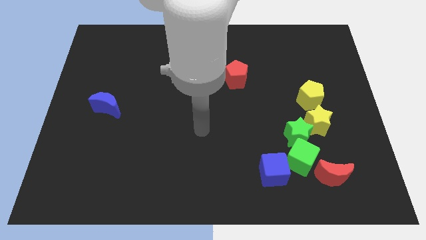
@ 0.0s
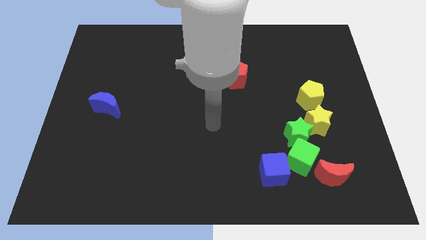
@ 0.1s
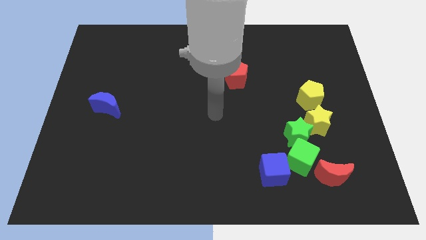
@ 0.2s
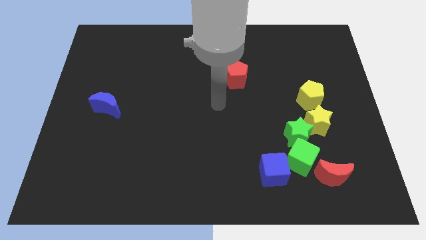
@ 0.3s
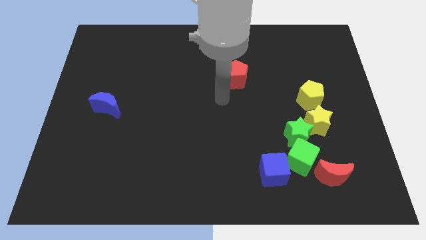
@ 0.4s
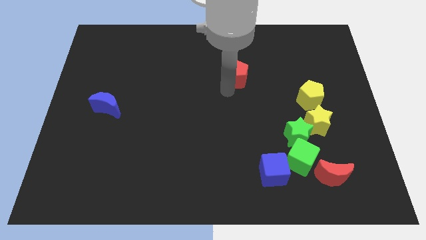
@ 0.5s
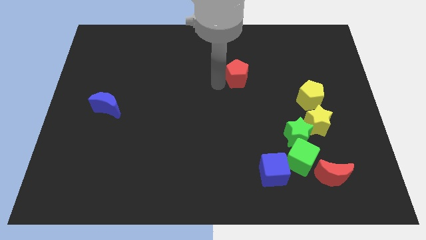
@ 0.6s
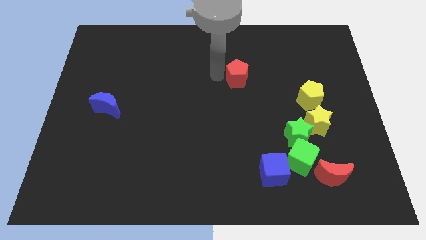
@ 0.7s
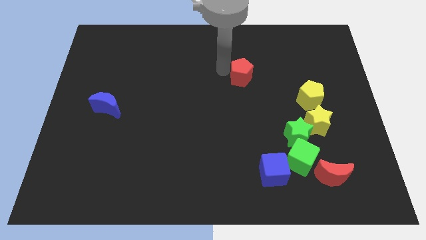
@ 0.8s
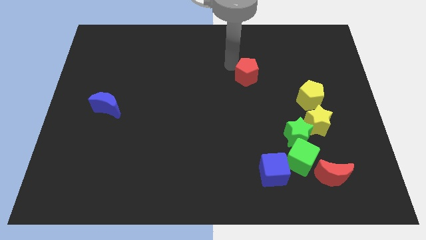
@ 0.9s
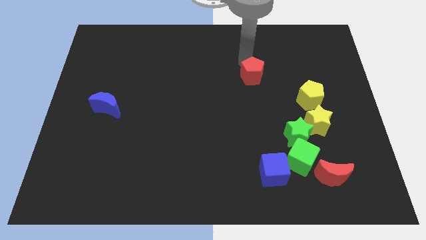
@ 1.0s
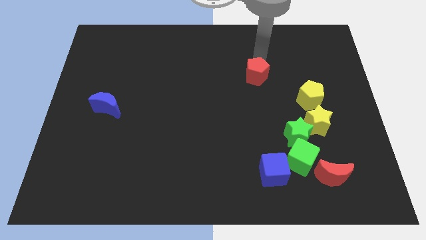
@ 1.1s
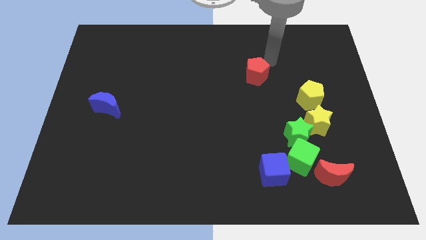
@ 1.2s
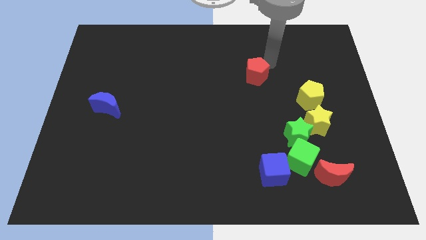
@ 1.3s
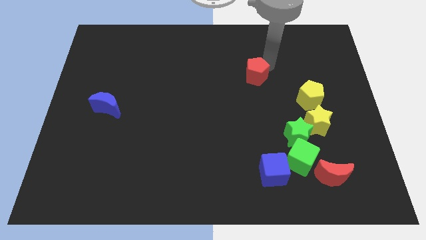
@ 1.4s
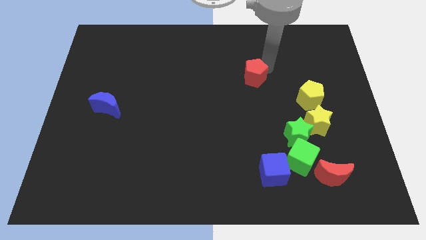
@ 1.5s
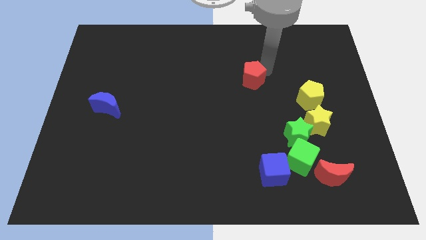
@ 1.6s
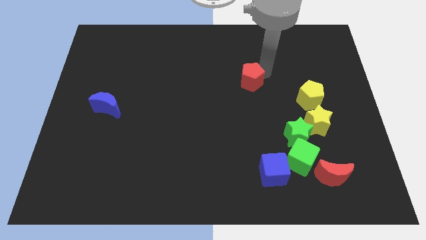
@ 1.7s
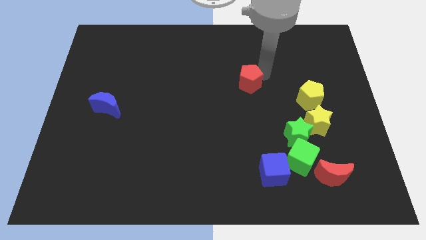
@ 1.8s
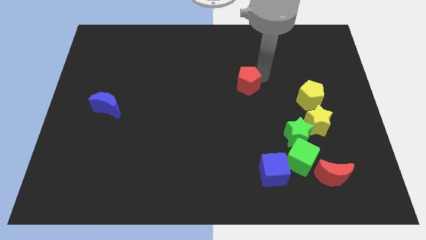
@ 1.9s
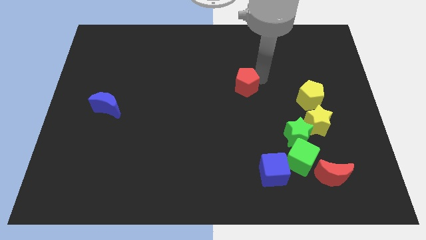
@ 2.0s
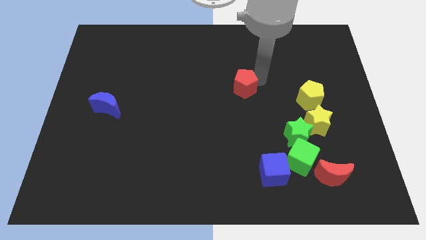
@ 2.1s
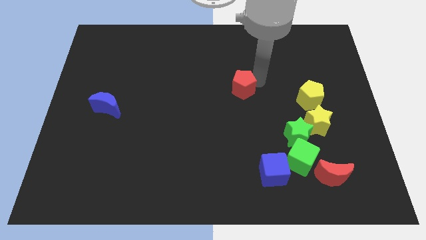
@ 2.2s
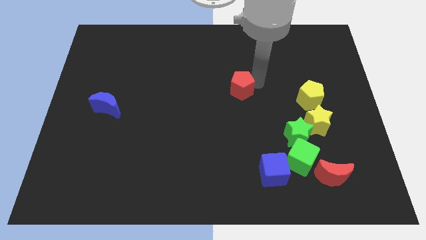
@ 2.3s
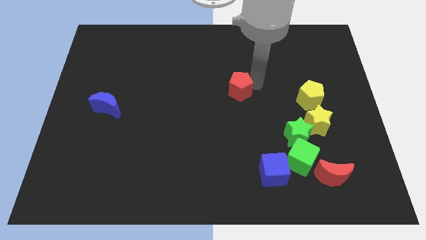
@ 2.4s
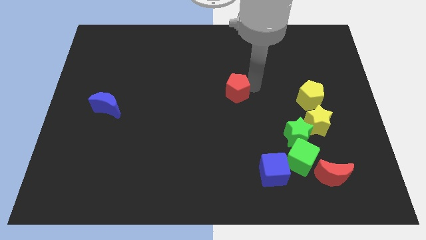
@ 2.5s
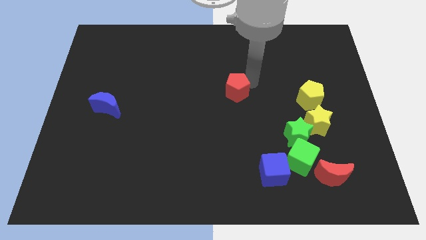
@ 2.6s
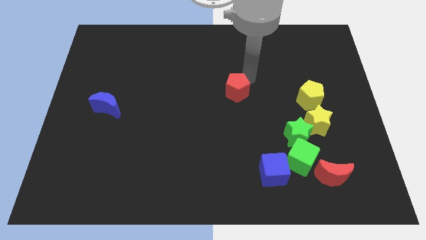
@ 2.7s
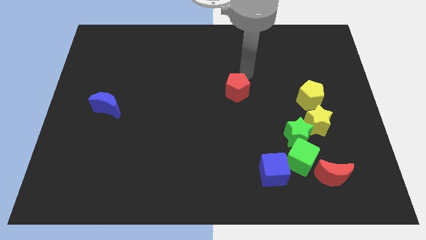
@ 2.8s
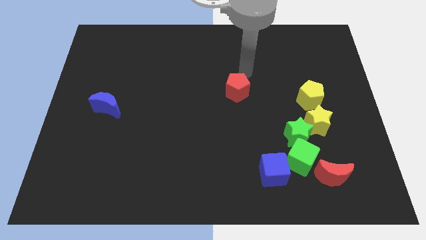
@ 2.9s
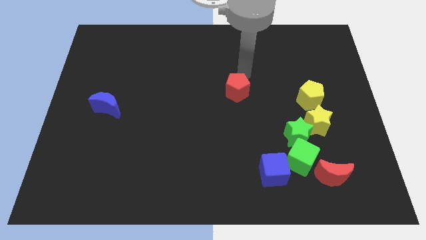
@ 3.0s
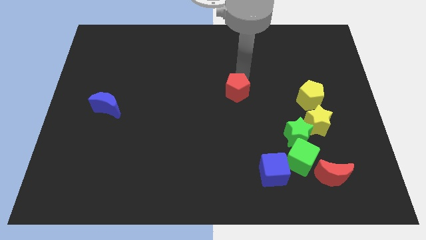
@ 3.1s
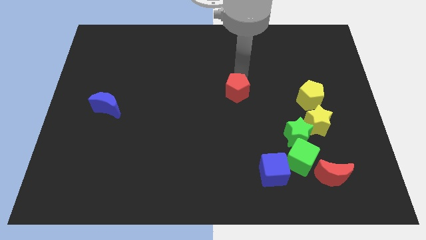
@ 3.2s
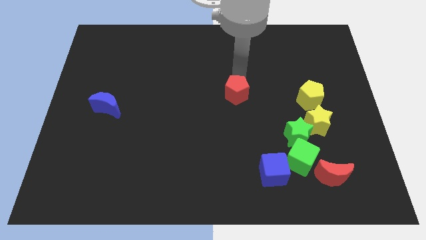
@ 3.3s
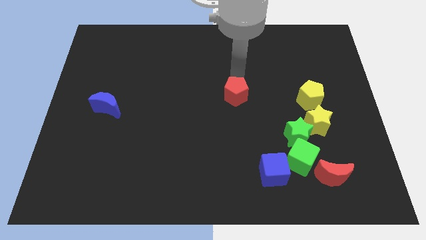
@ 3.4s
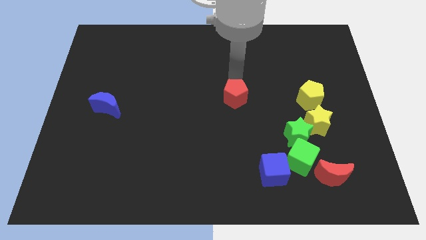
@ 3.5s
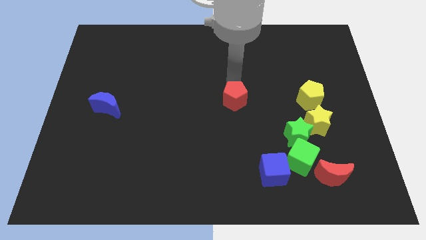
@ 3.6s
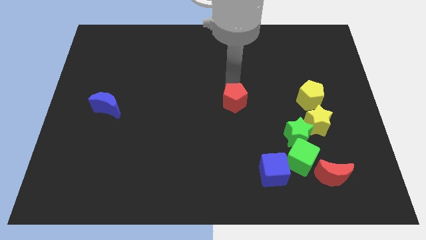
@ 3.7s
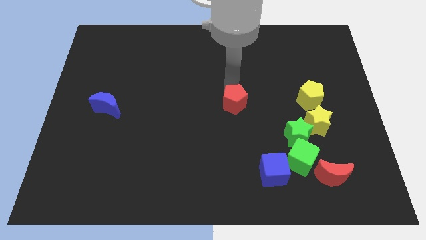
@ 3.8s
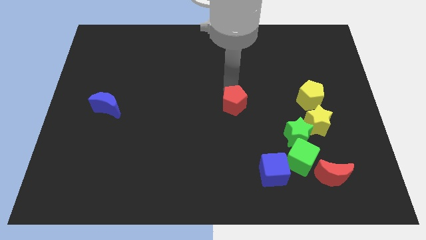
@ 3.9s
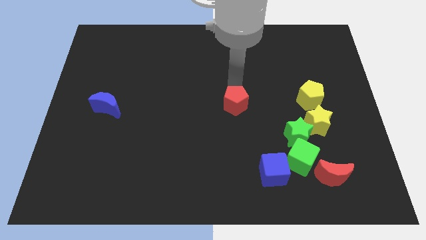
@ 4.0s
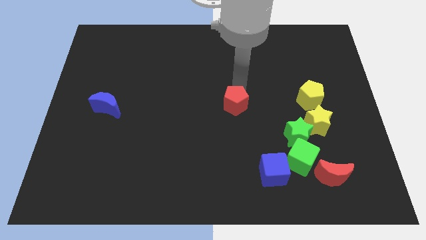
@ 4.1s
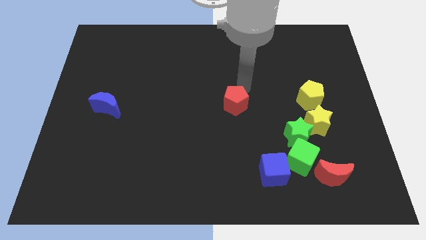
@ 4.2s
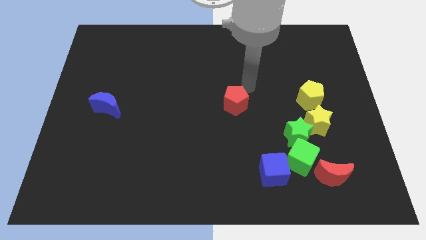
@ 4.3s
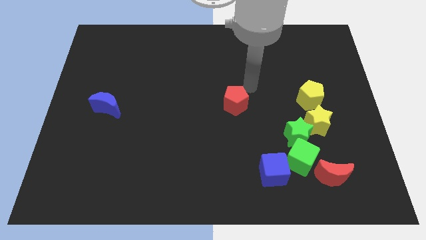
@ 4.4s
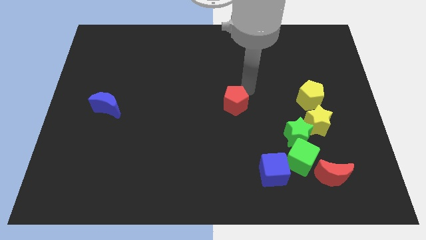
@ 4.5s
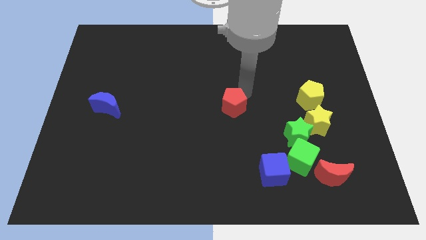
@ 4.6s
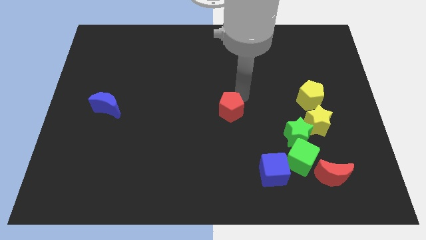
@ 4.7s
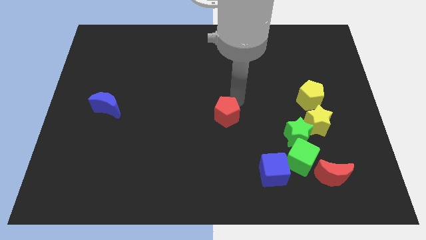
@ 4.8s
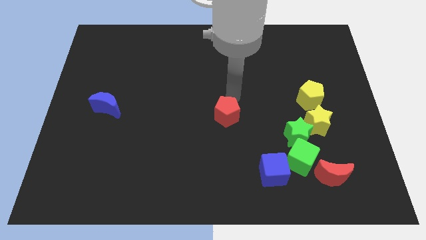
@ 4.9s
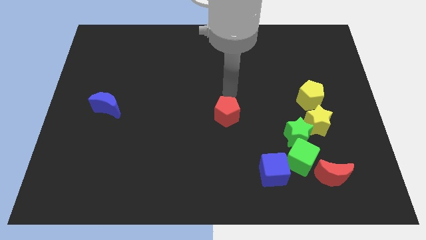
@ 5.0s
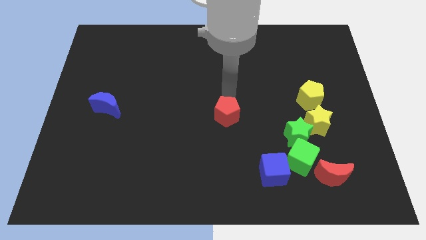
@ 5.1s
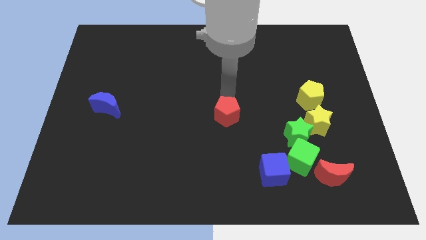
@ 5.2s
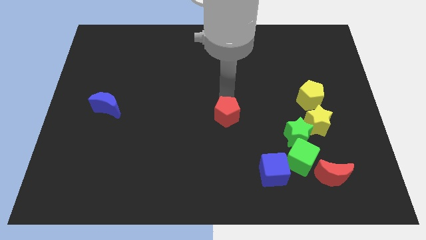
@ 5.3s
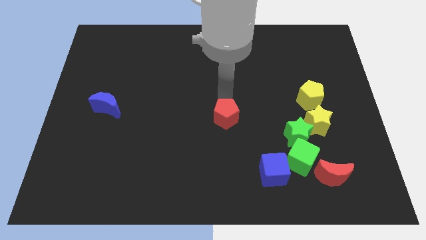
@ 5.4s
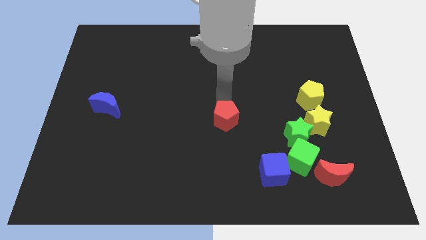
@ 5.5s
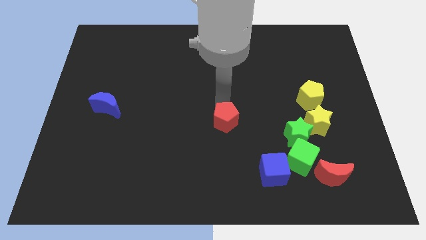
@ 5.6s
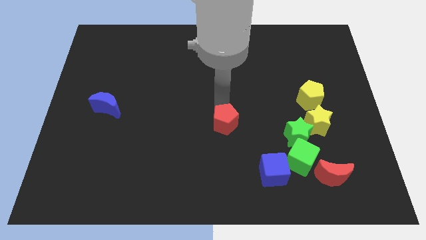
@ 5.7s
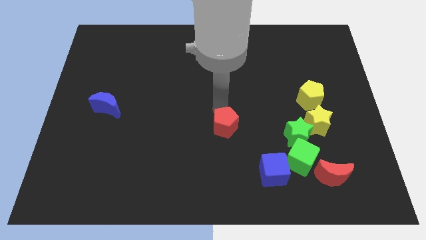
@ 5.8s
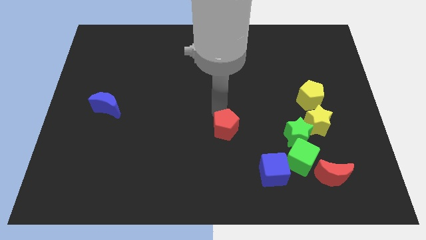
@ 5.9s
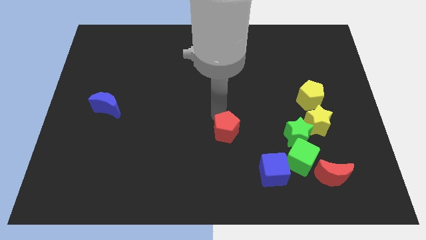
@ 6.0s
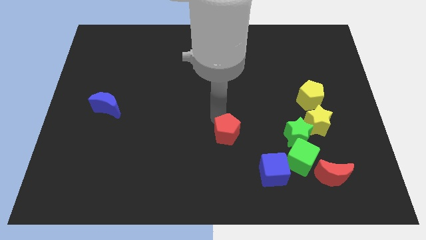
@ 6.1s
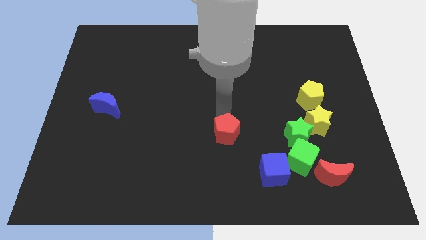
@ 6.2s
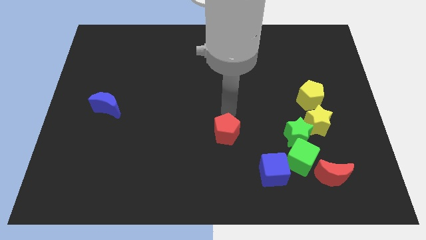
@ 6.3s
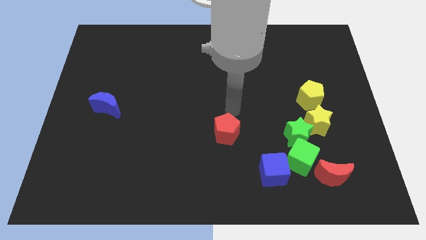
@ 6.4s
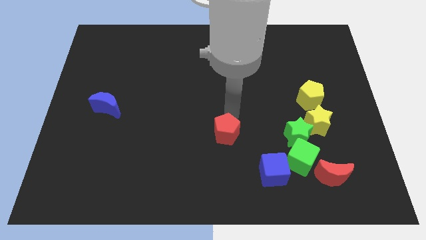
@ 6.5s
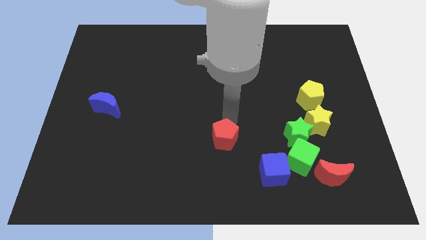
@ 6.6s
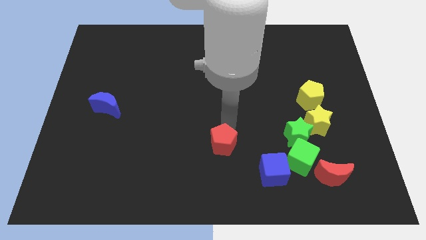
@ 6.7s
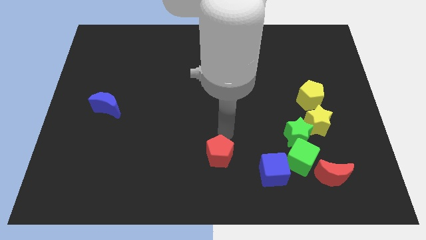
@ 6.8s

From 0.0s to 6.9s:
put the red pentagon to the bottom side
